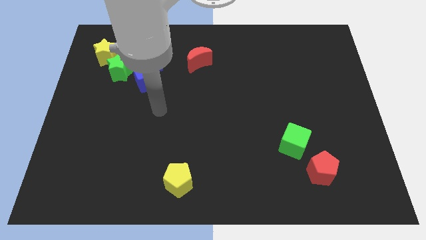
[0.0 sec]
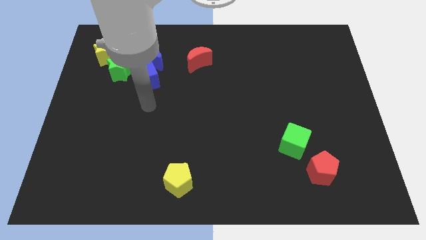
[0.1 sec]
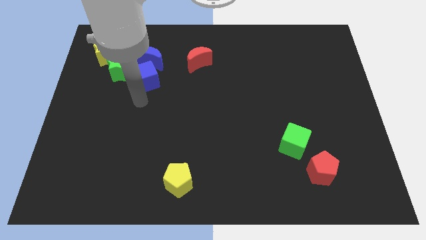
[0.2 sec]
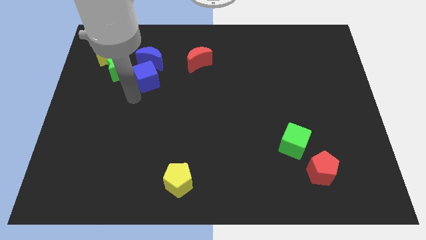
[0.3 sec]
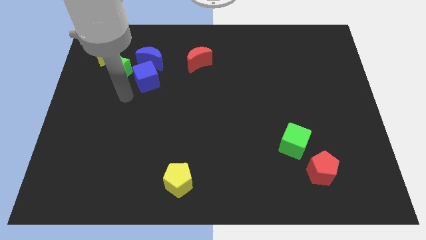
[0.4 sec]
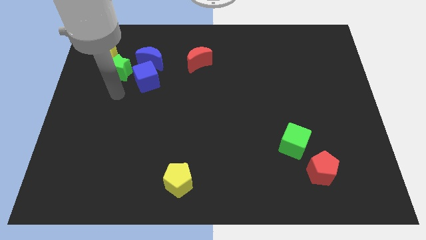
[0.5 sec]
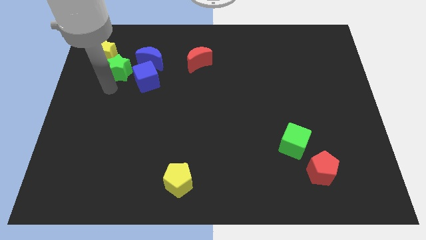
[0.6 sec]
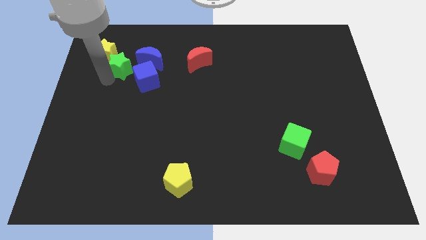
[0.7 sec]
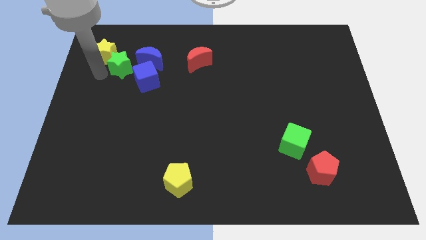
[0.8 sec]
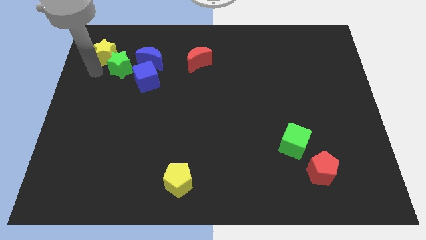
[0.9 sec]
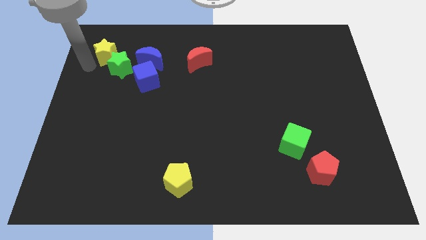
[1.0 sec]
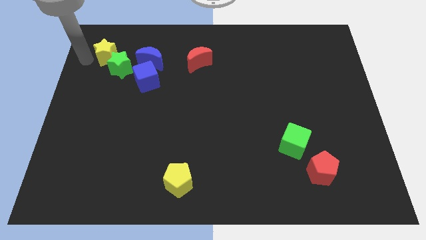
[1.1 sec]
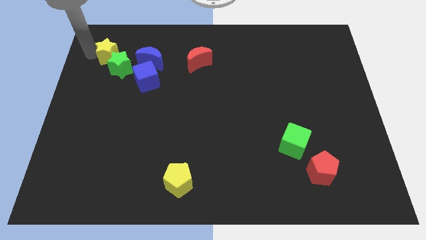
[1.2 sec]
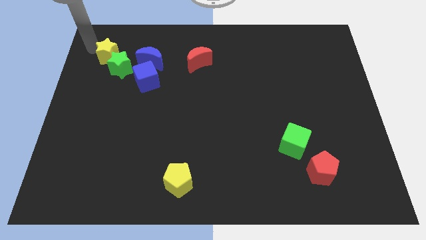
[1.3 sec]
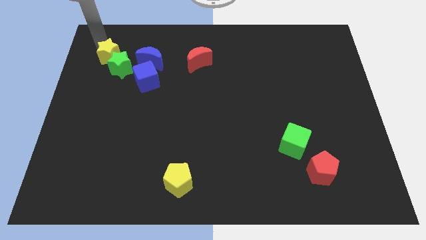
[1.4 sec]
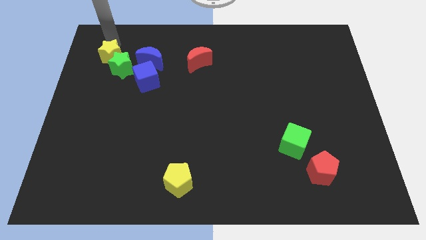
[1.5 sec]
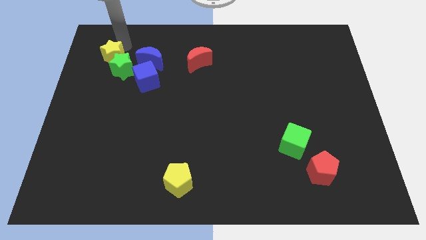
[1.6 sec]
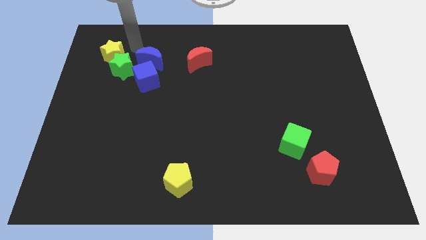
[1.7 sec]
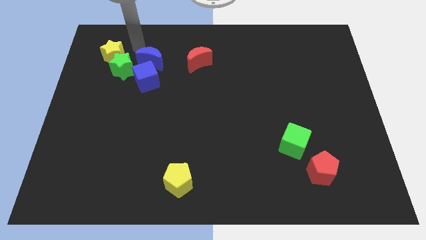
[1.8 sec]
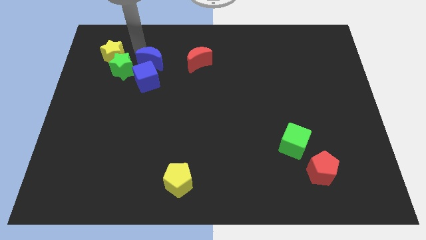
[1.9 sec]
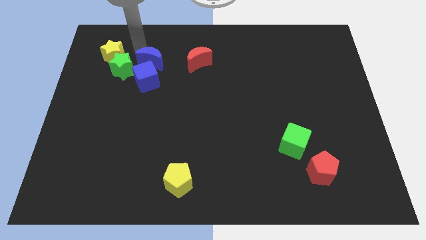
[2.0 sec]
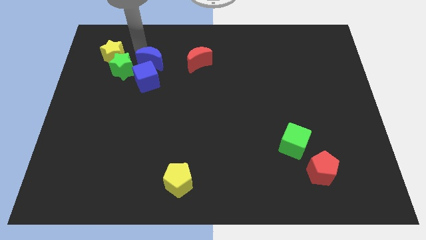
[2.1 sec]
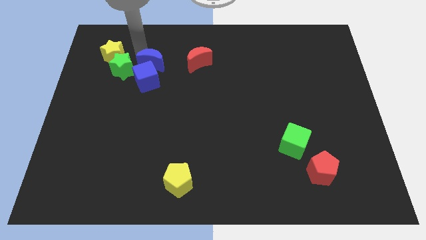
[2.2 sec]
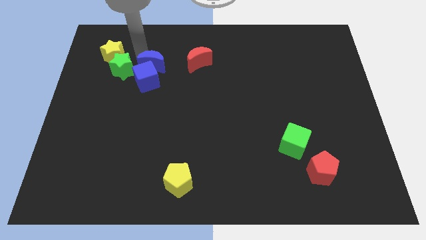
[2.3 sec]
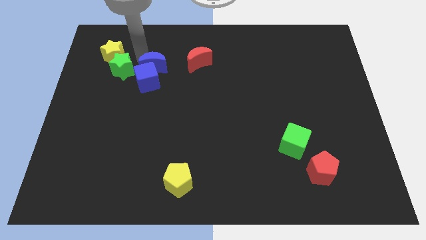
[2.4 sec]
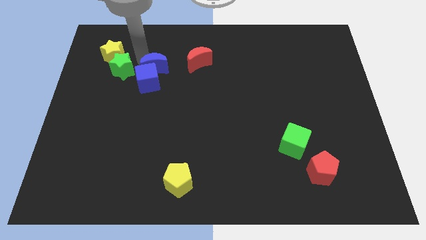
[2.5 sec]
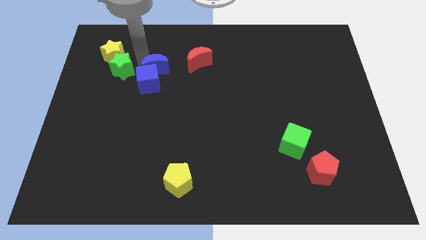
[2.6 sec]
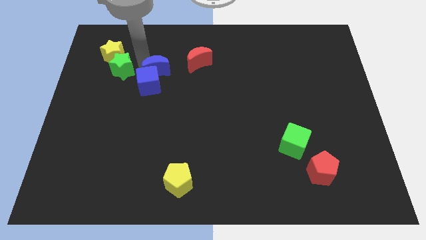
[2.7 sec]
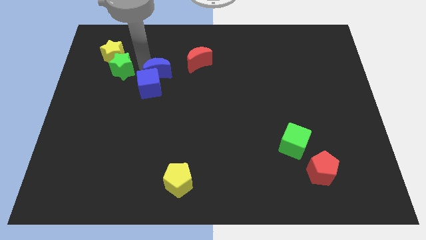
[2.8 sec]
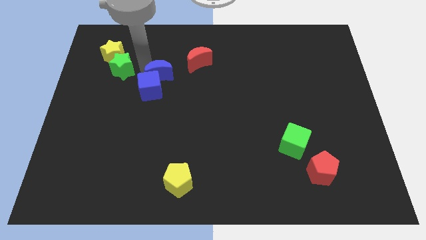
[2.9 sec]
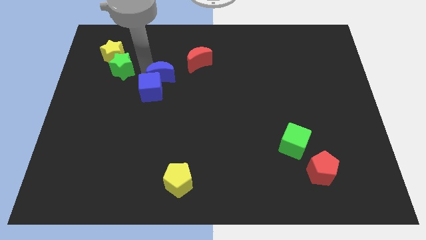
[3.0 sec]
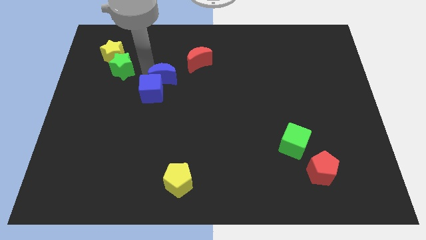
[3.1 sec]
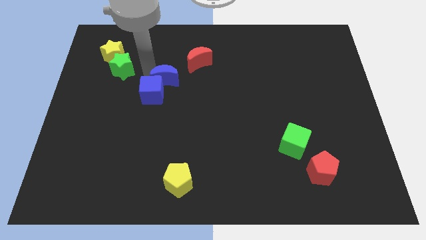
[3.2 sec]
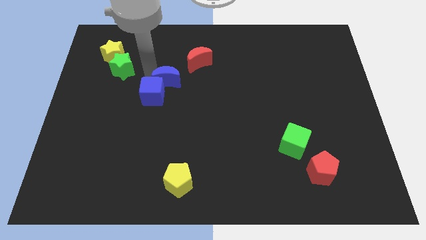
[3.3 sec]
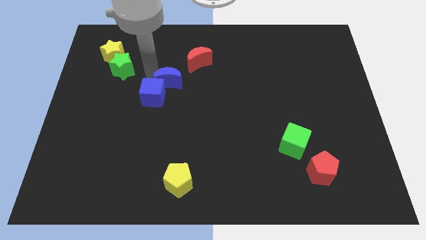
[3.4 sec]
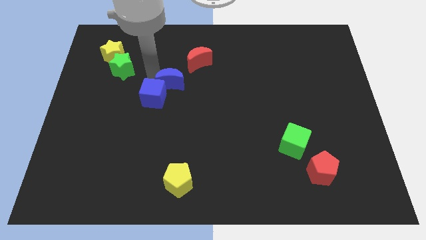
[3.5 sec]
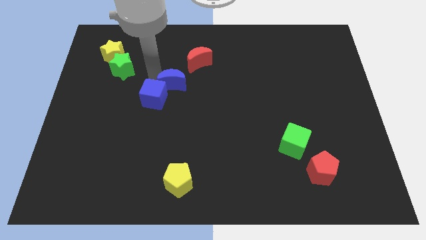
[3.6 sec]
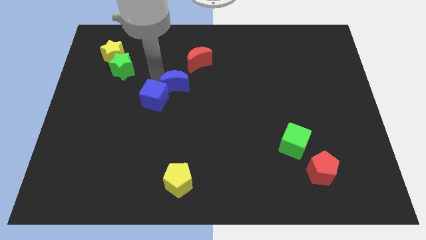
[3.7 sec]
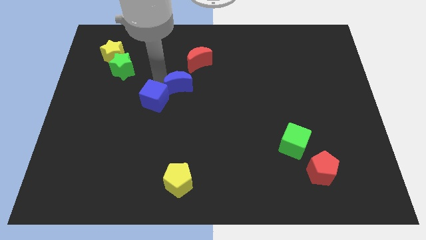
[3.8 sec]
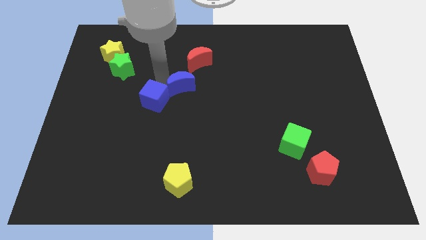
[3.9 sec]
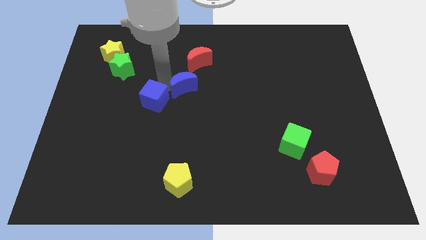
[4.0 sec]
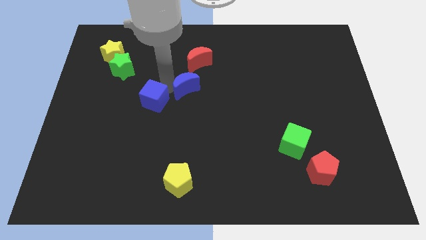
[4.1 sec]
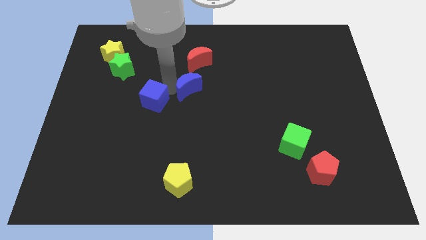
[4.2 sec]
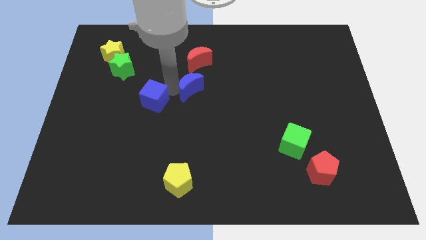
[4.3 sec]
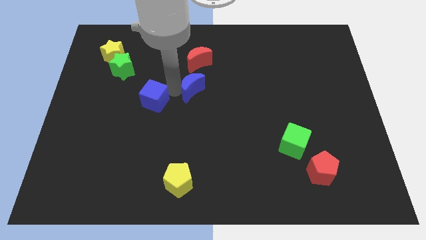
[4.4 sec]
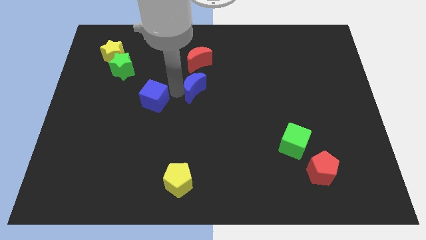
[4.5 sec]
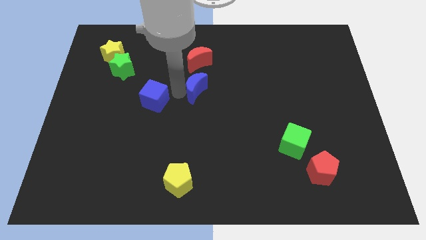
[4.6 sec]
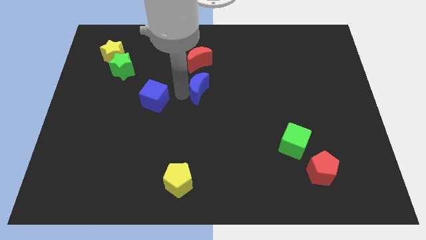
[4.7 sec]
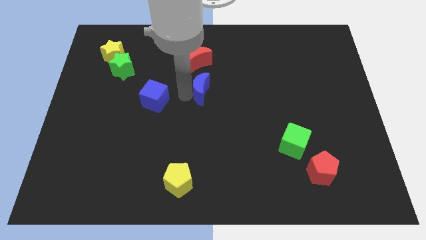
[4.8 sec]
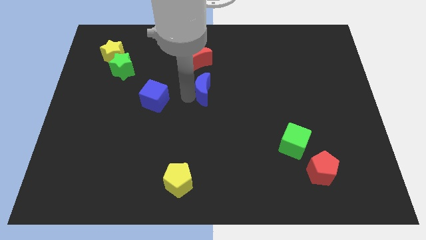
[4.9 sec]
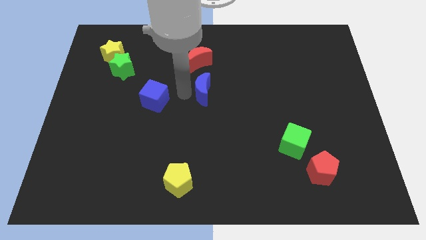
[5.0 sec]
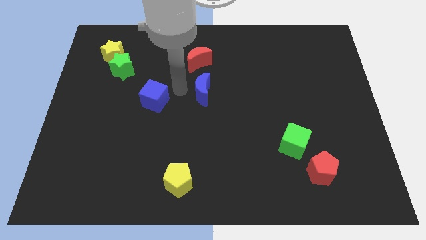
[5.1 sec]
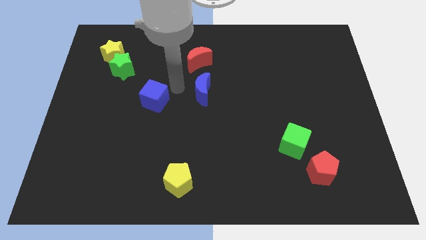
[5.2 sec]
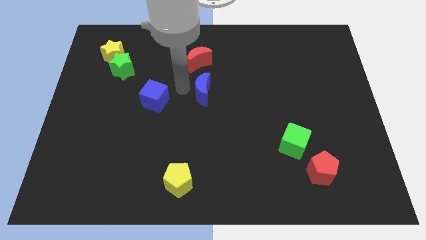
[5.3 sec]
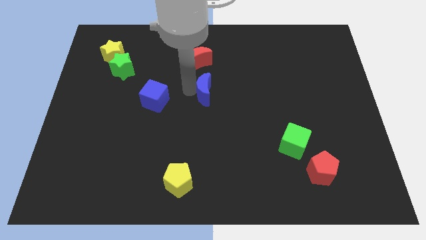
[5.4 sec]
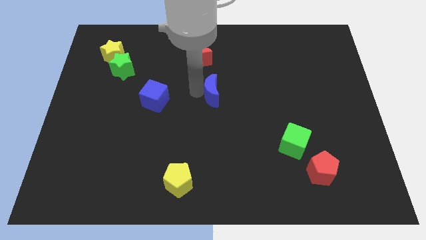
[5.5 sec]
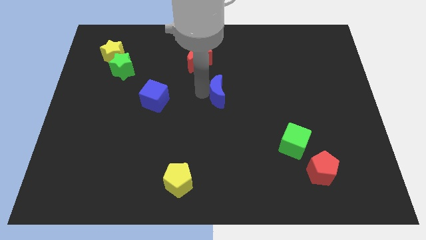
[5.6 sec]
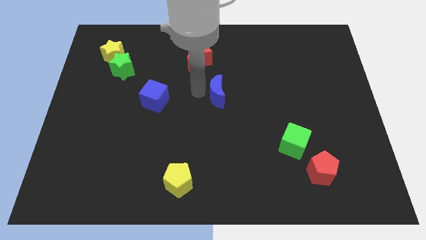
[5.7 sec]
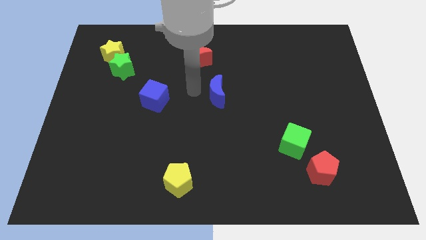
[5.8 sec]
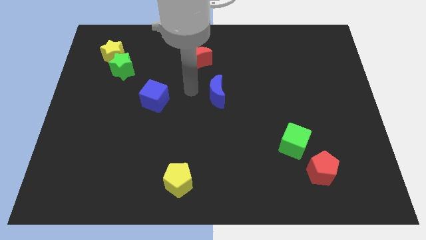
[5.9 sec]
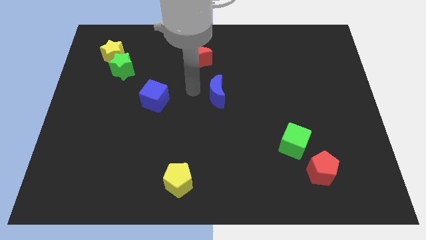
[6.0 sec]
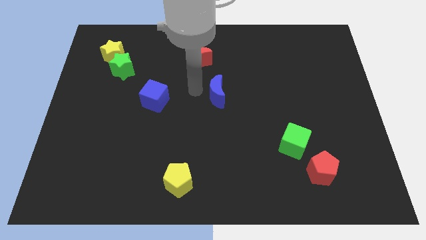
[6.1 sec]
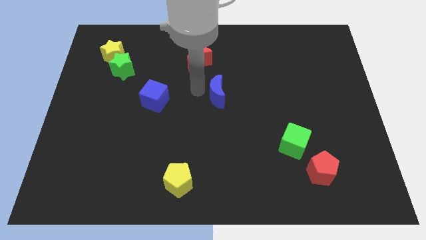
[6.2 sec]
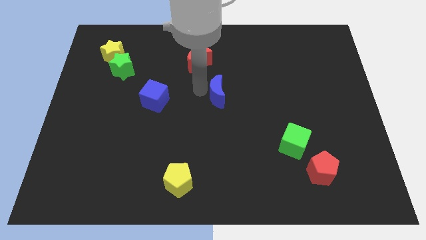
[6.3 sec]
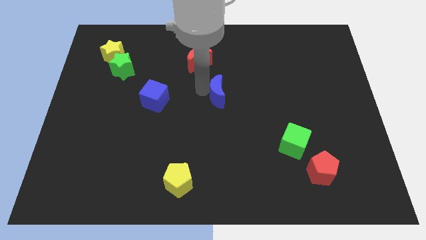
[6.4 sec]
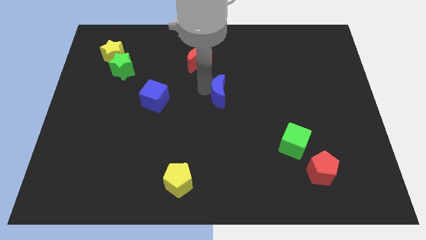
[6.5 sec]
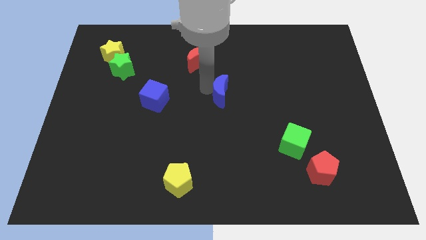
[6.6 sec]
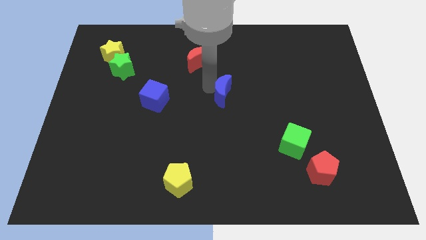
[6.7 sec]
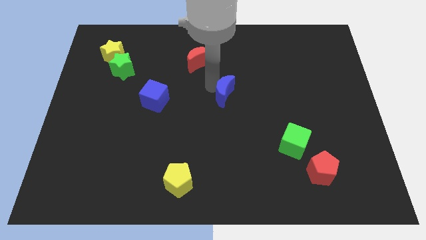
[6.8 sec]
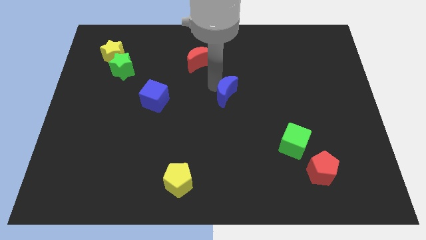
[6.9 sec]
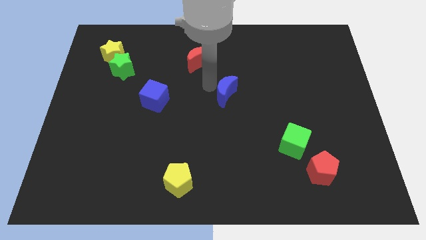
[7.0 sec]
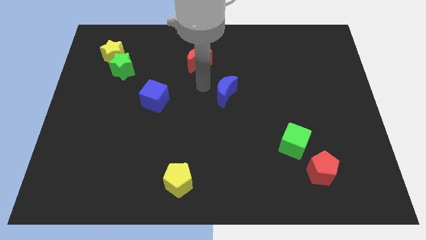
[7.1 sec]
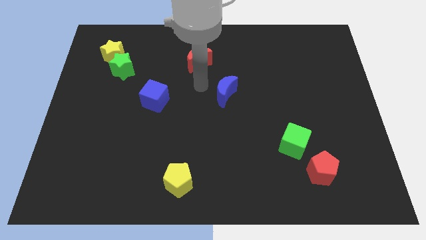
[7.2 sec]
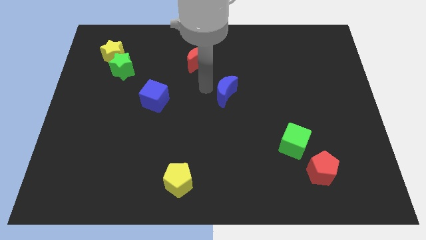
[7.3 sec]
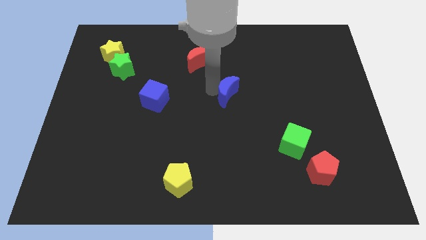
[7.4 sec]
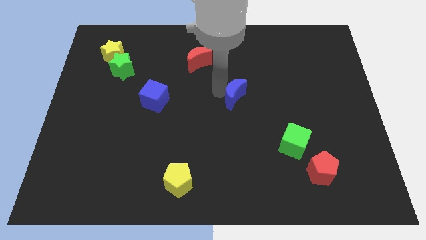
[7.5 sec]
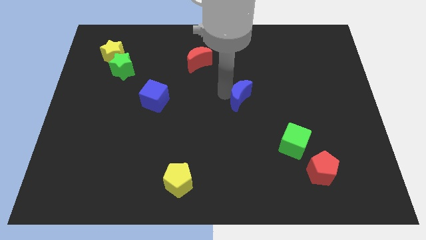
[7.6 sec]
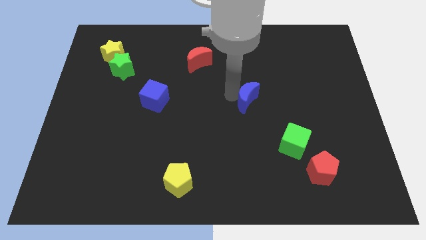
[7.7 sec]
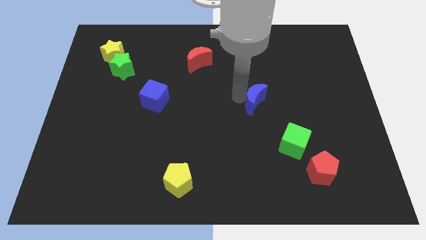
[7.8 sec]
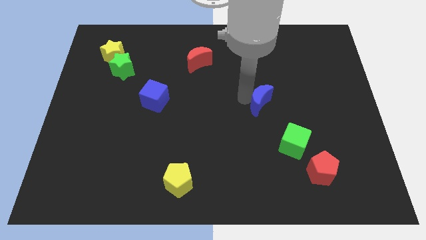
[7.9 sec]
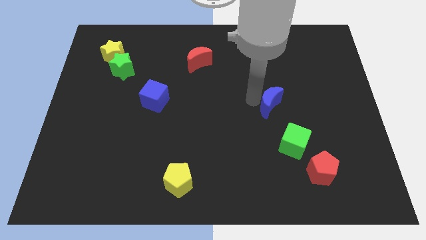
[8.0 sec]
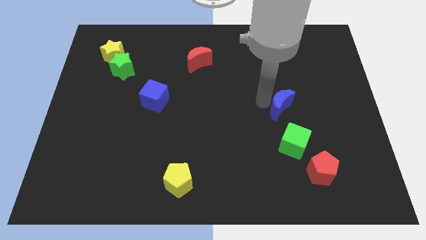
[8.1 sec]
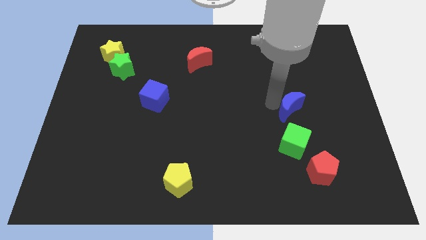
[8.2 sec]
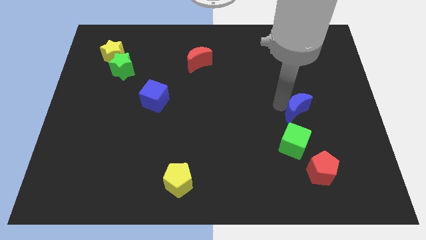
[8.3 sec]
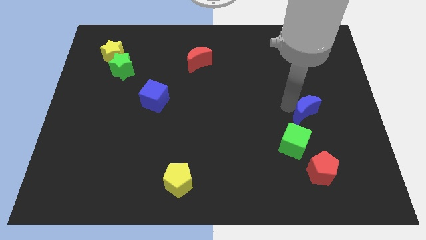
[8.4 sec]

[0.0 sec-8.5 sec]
slide the blue moon diagonally up and to the right of the green cube
